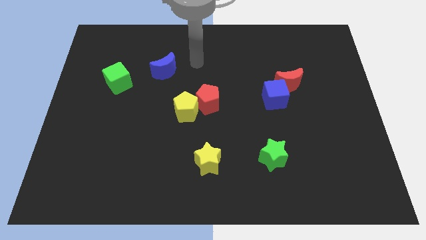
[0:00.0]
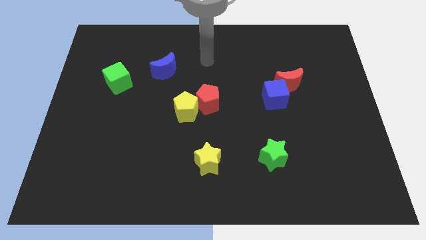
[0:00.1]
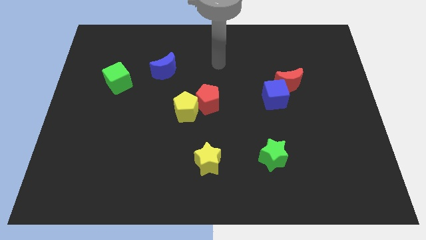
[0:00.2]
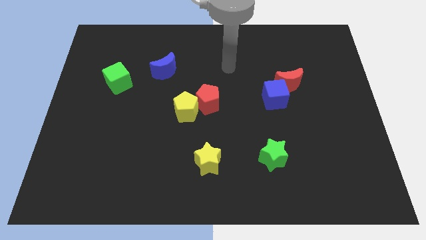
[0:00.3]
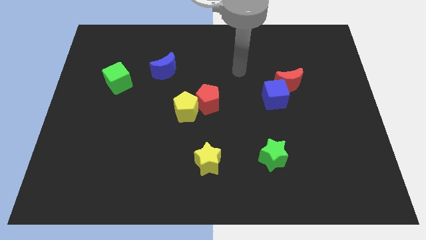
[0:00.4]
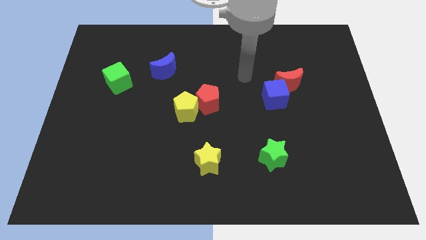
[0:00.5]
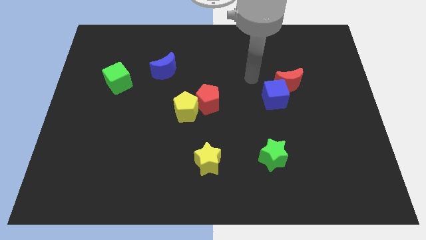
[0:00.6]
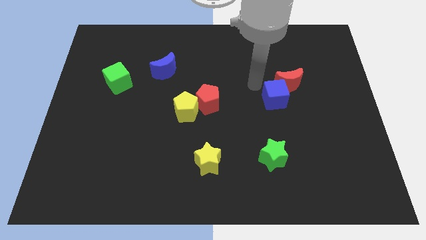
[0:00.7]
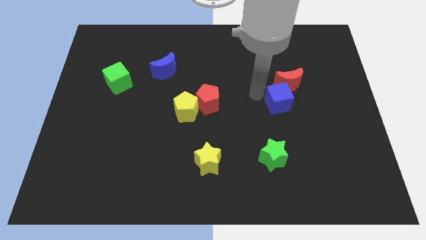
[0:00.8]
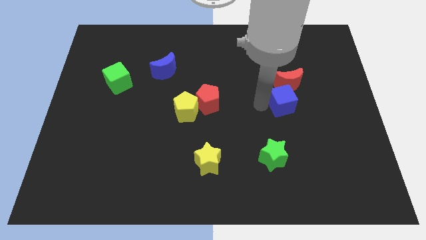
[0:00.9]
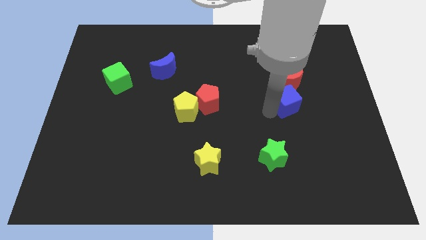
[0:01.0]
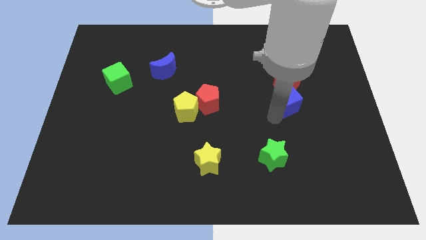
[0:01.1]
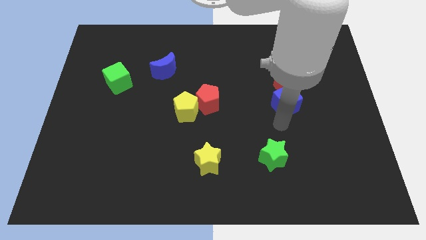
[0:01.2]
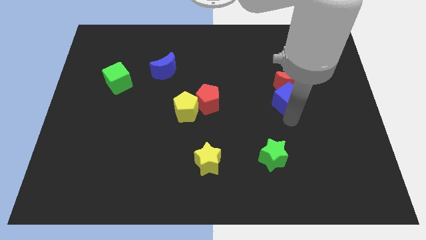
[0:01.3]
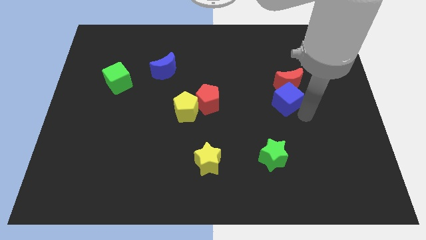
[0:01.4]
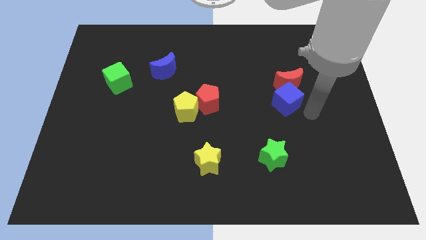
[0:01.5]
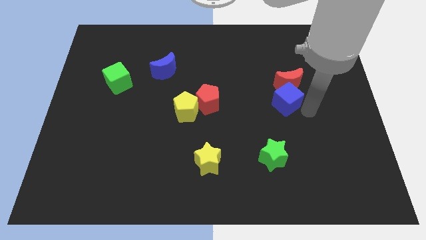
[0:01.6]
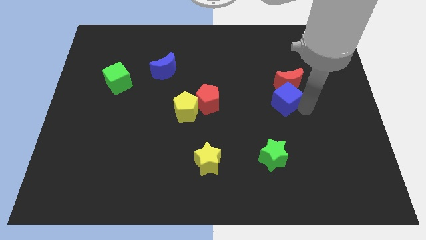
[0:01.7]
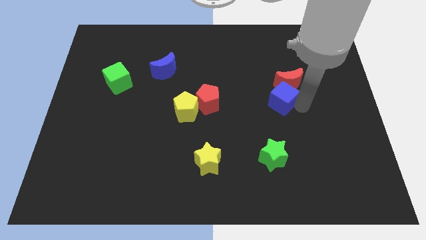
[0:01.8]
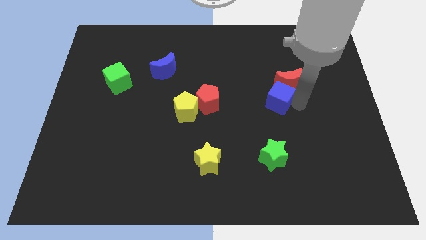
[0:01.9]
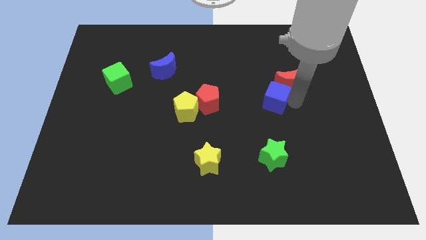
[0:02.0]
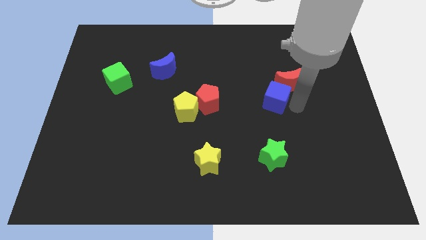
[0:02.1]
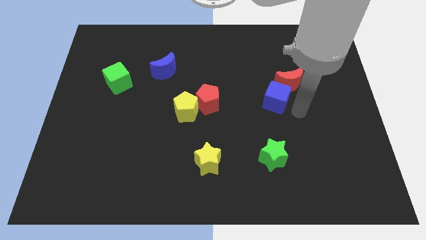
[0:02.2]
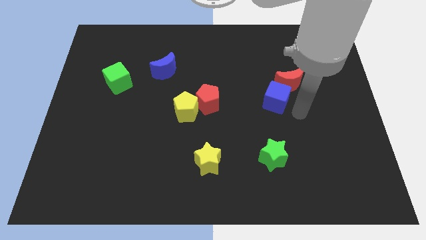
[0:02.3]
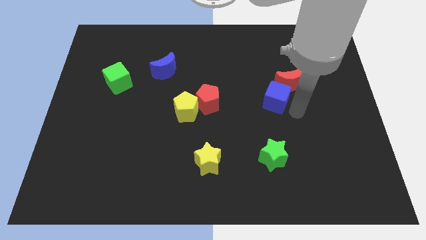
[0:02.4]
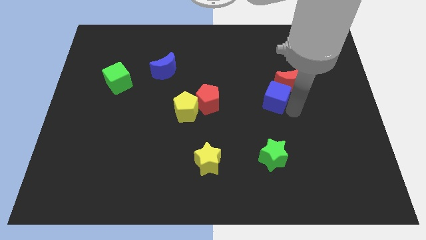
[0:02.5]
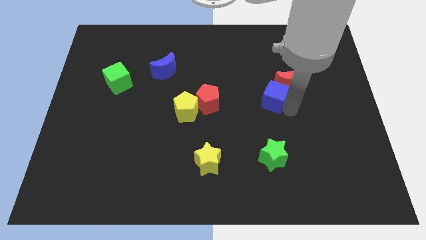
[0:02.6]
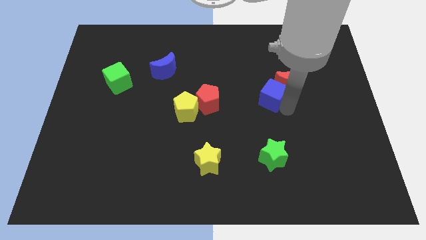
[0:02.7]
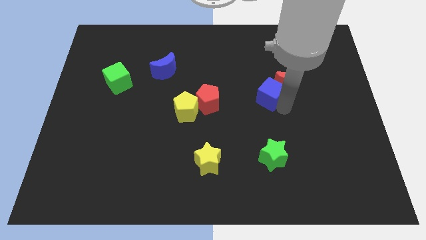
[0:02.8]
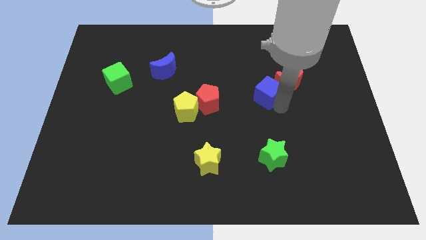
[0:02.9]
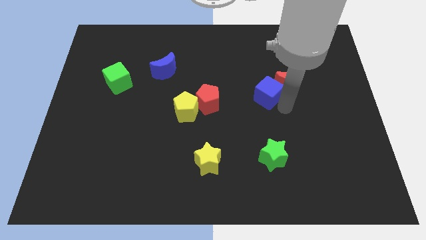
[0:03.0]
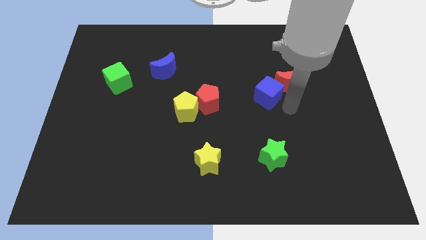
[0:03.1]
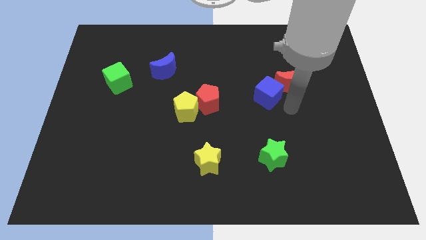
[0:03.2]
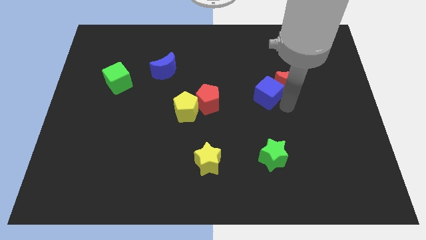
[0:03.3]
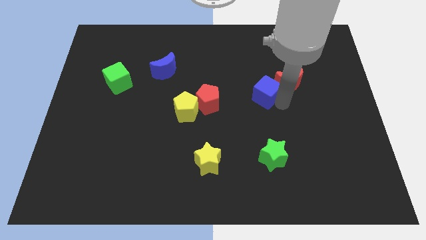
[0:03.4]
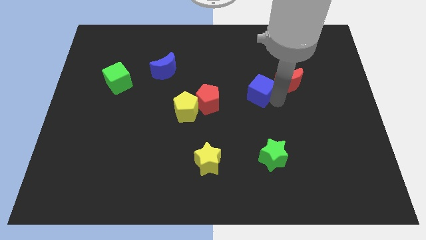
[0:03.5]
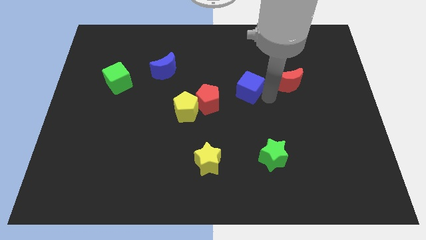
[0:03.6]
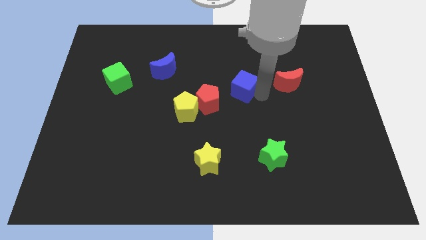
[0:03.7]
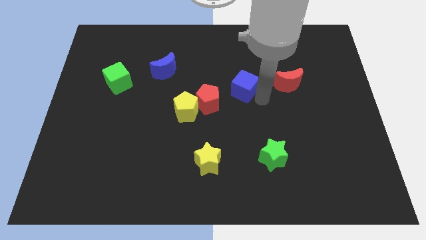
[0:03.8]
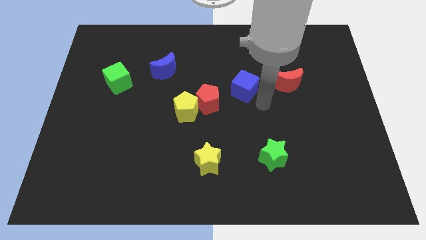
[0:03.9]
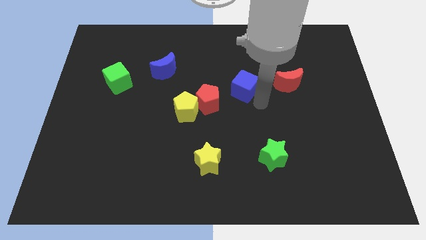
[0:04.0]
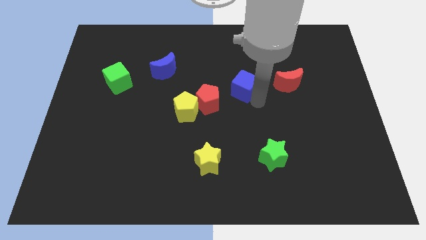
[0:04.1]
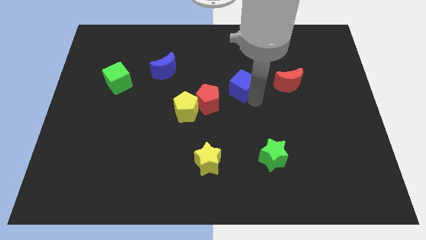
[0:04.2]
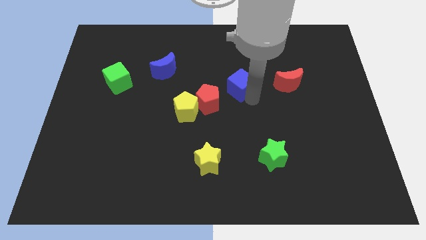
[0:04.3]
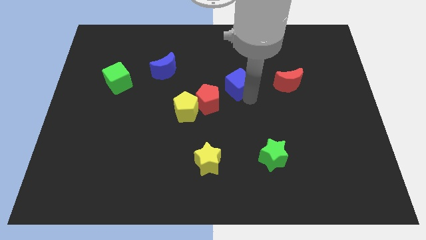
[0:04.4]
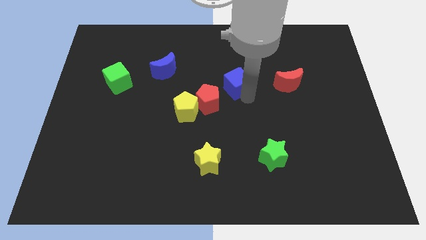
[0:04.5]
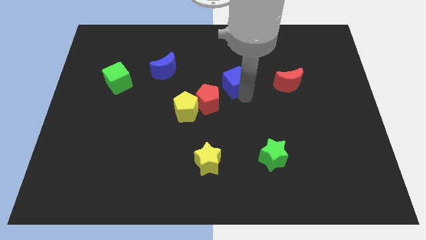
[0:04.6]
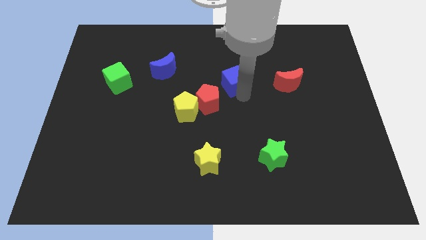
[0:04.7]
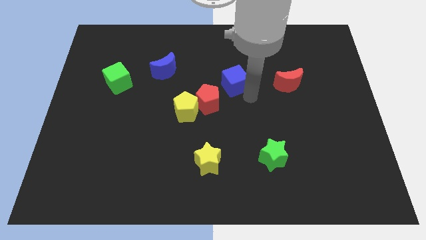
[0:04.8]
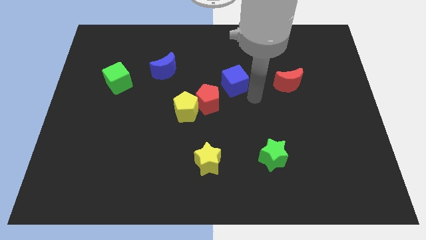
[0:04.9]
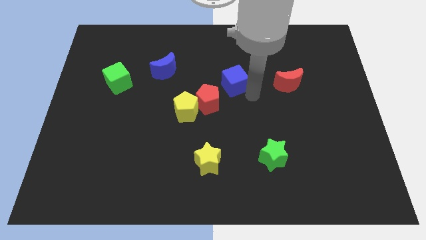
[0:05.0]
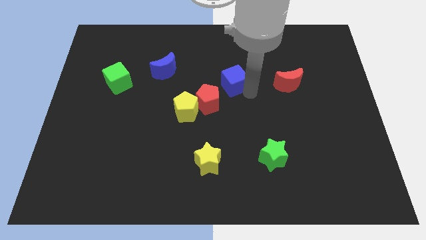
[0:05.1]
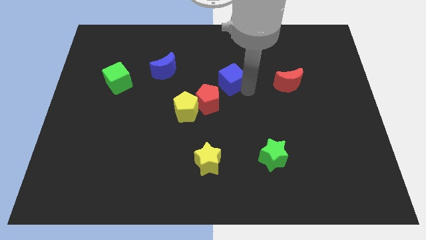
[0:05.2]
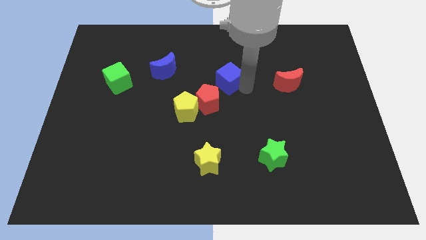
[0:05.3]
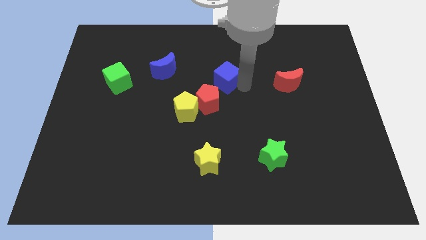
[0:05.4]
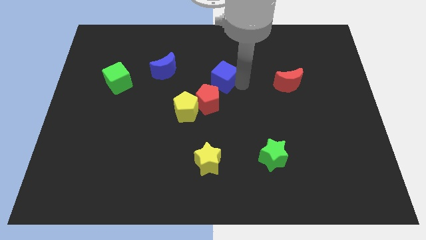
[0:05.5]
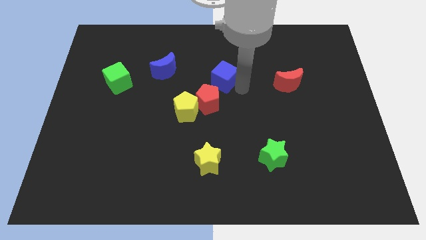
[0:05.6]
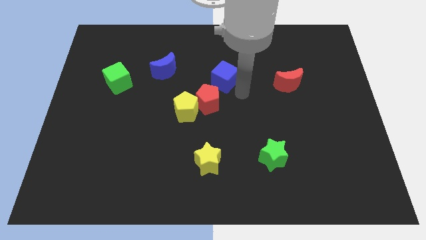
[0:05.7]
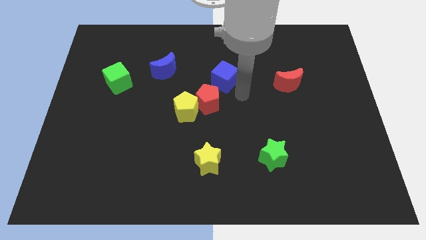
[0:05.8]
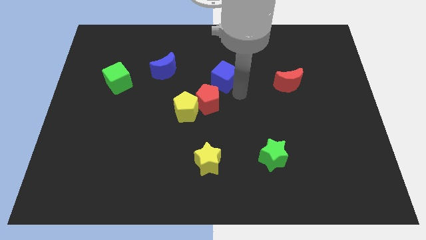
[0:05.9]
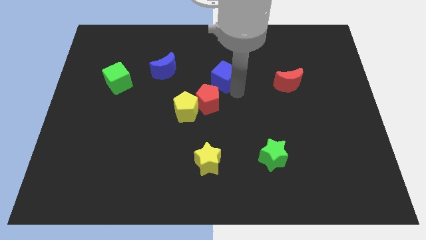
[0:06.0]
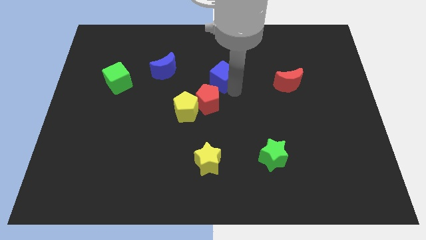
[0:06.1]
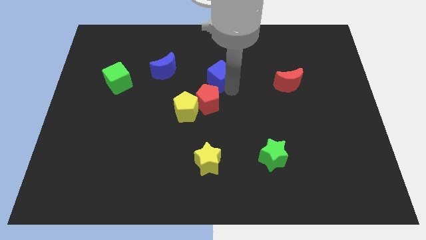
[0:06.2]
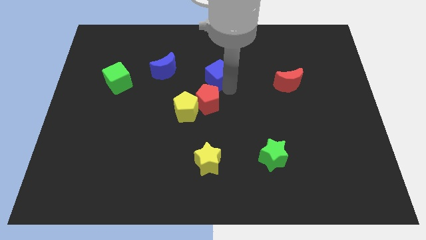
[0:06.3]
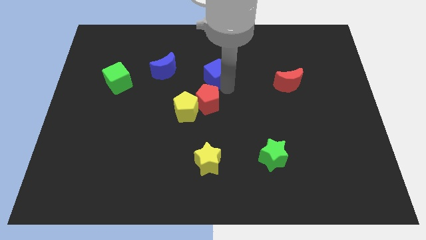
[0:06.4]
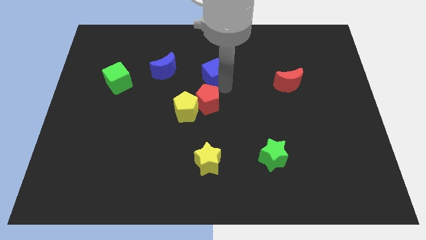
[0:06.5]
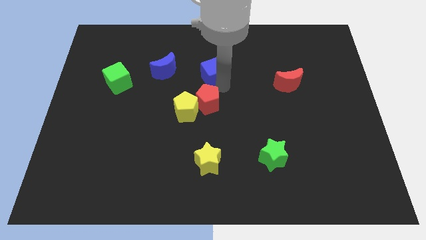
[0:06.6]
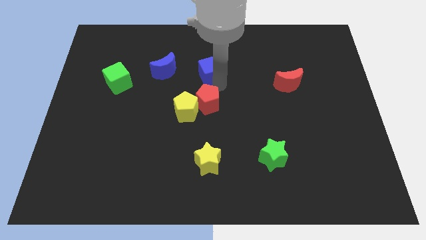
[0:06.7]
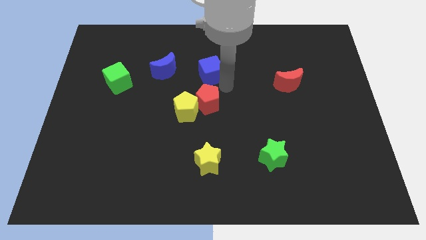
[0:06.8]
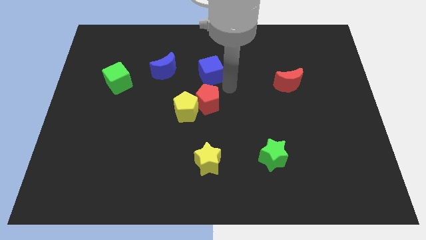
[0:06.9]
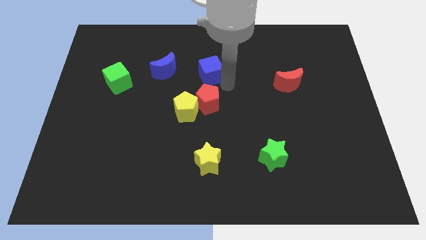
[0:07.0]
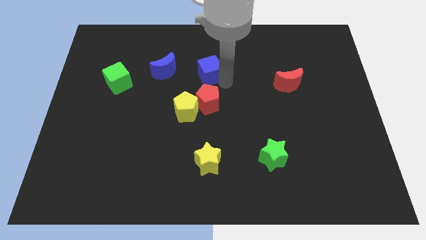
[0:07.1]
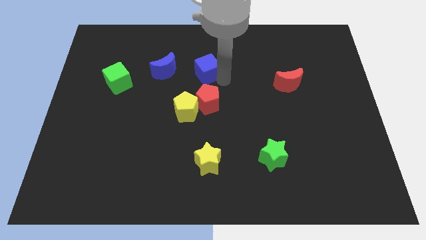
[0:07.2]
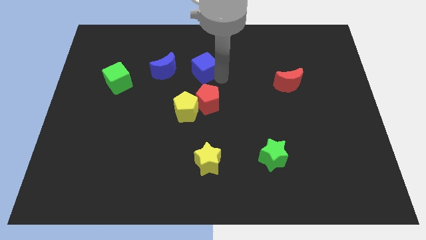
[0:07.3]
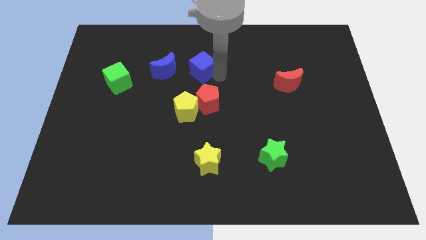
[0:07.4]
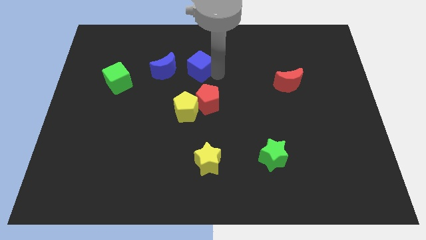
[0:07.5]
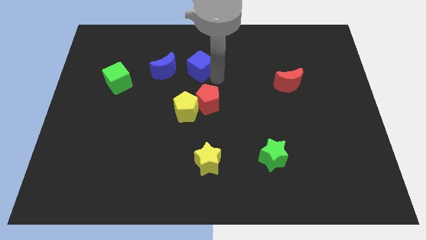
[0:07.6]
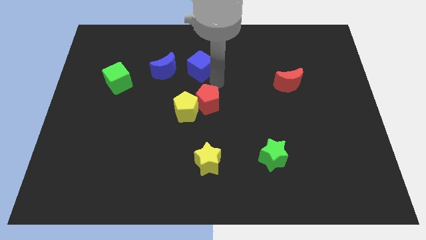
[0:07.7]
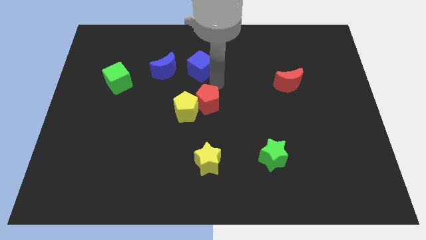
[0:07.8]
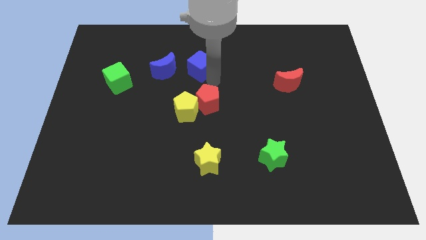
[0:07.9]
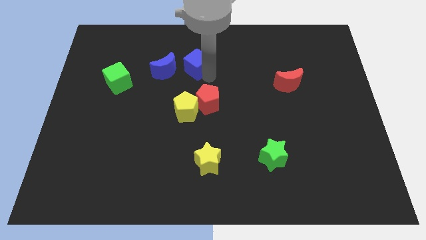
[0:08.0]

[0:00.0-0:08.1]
put the blue cube diagonally up and to the right of the blue moon
